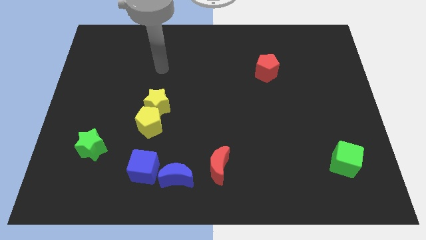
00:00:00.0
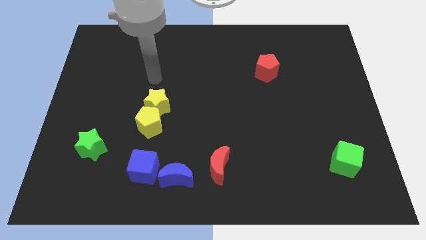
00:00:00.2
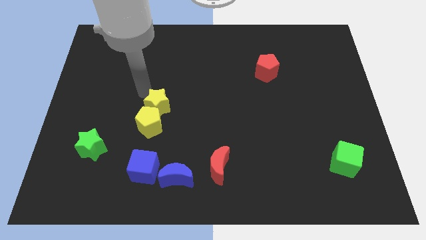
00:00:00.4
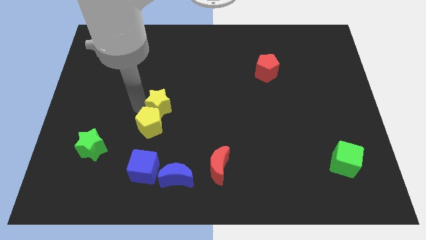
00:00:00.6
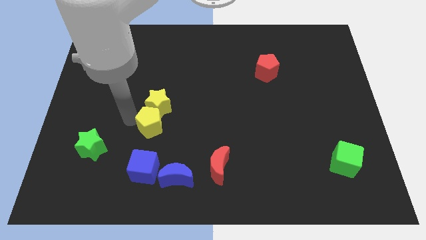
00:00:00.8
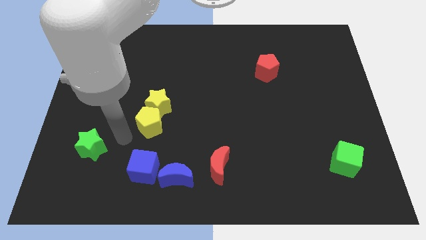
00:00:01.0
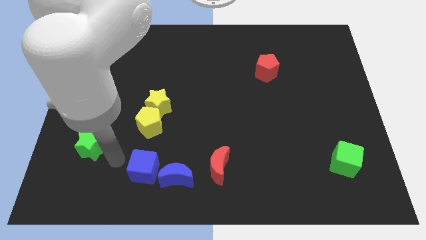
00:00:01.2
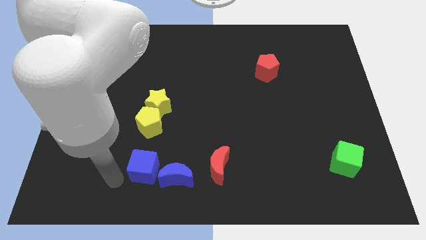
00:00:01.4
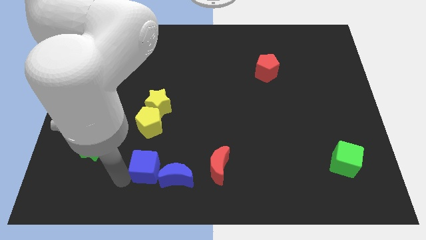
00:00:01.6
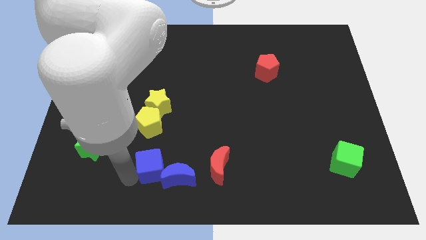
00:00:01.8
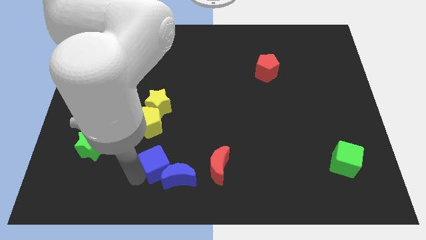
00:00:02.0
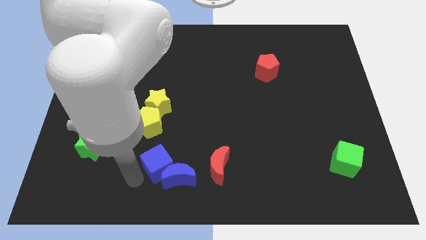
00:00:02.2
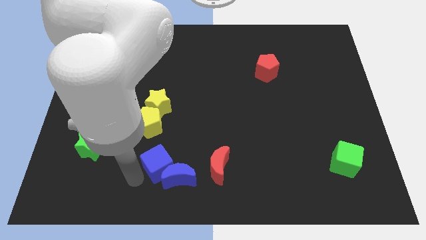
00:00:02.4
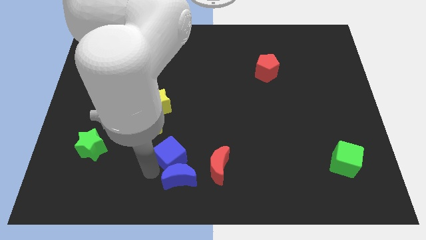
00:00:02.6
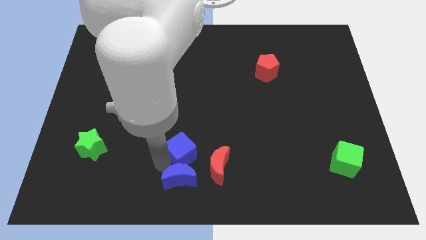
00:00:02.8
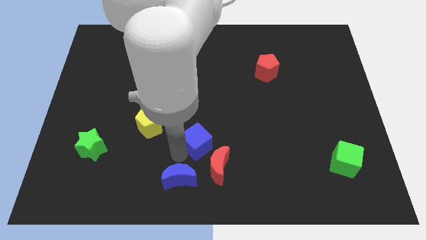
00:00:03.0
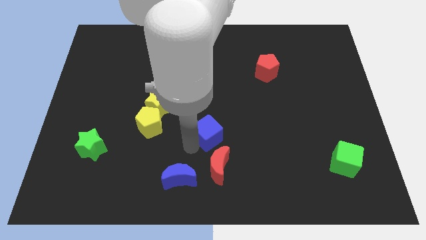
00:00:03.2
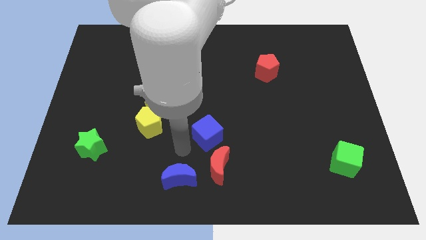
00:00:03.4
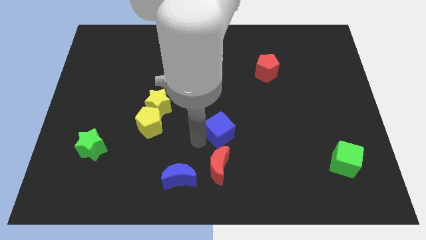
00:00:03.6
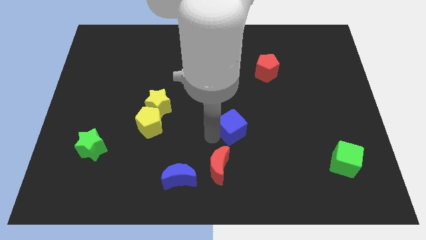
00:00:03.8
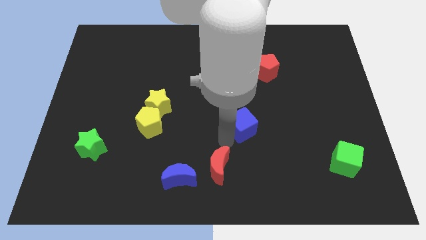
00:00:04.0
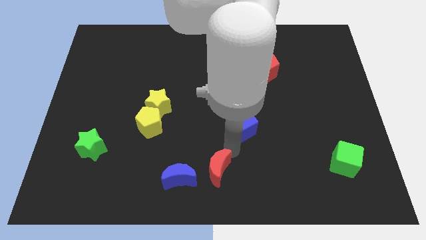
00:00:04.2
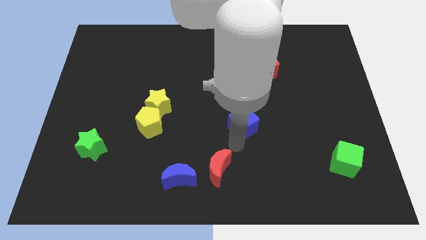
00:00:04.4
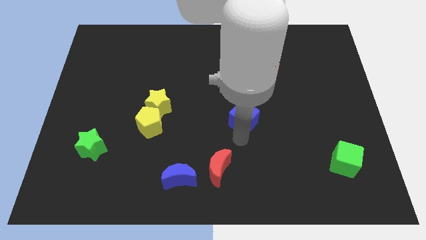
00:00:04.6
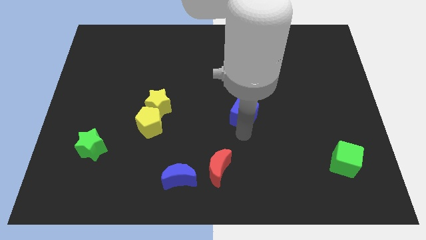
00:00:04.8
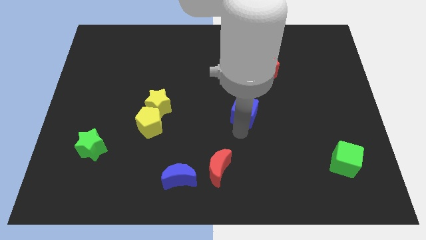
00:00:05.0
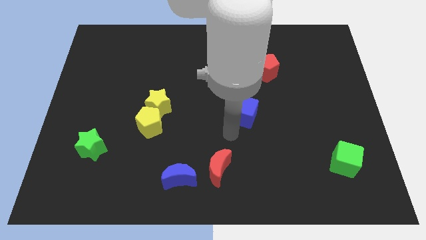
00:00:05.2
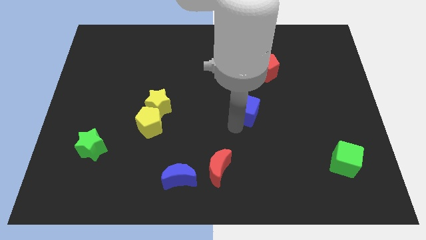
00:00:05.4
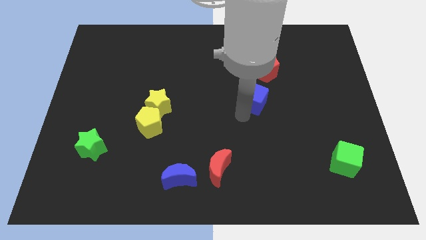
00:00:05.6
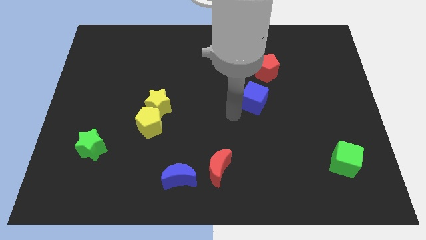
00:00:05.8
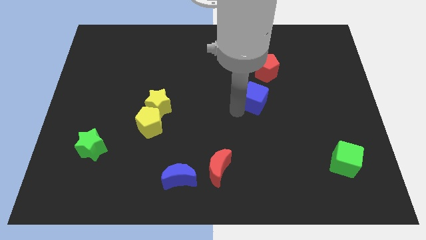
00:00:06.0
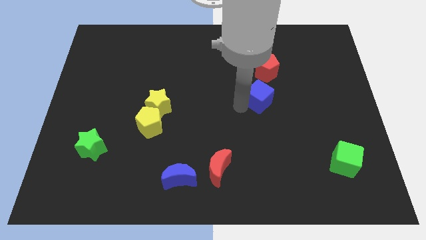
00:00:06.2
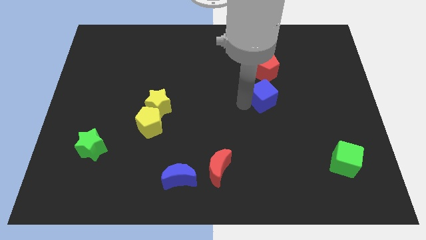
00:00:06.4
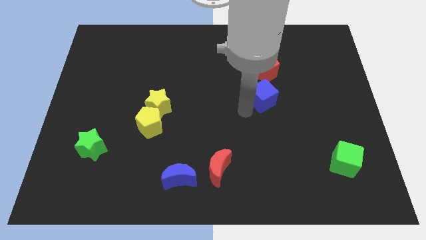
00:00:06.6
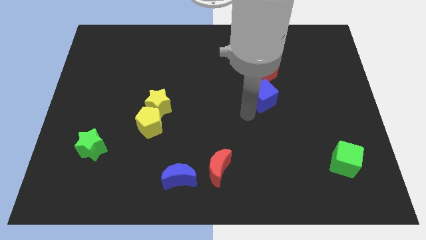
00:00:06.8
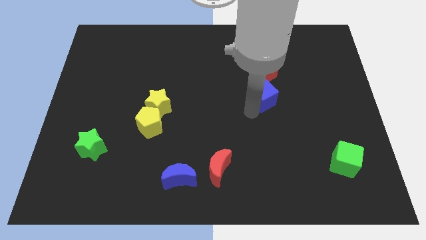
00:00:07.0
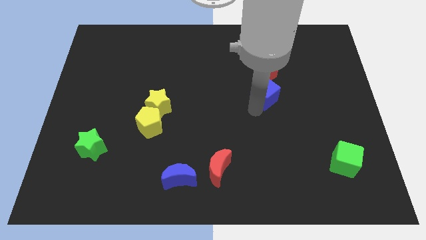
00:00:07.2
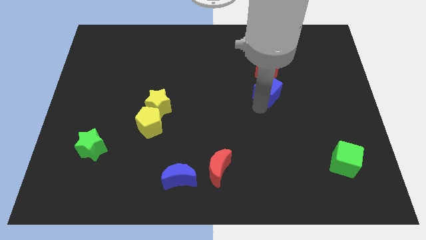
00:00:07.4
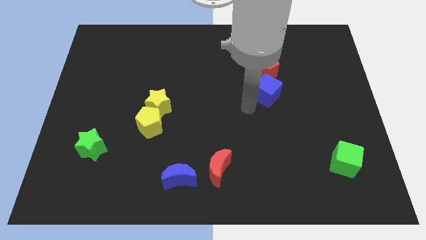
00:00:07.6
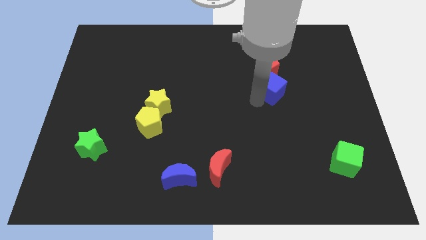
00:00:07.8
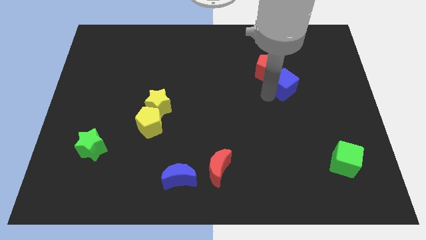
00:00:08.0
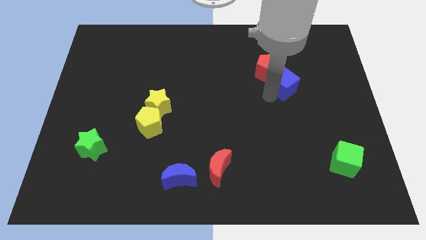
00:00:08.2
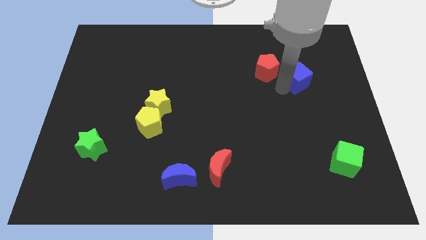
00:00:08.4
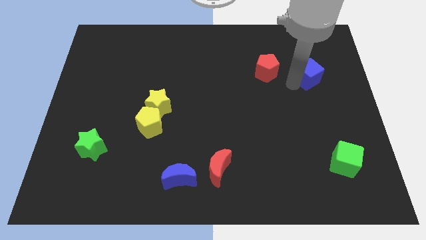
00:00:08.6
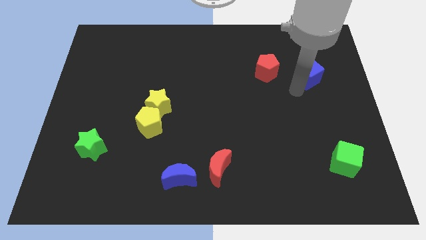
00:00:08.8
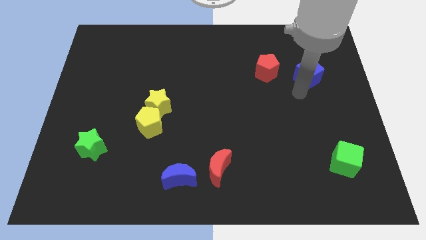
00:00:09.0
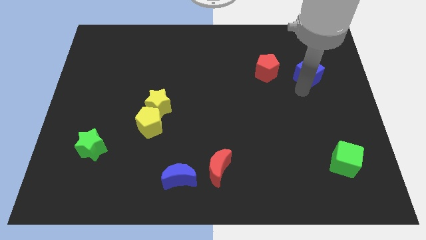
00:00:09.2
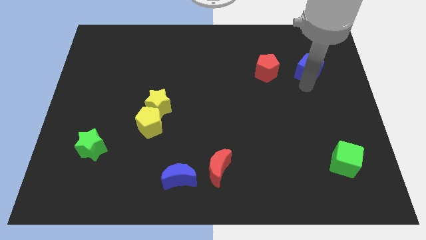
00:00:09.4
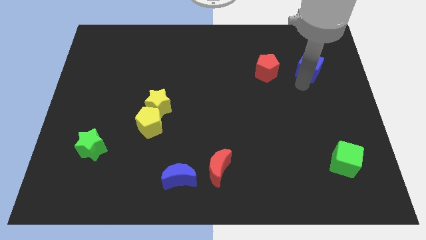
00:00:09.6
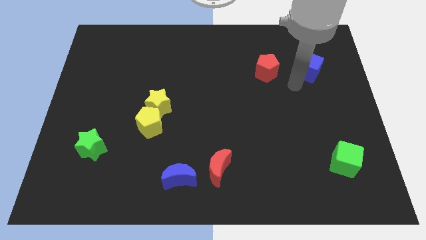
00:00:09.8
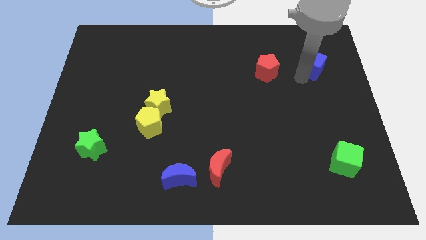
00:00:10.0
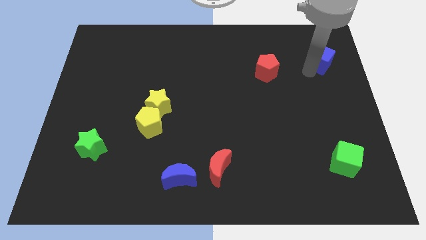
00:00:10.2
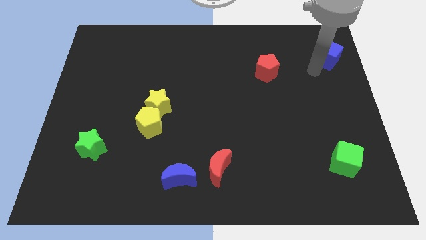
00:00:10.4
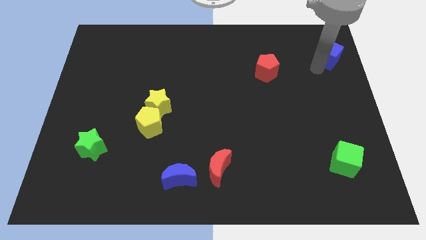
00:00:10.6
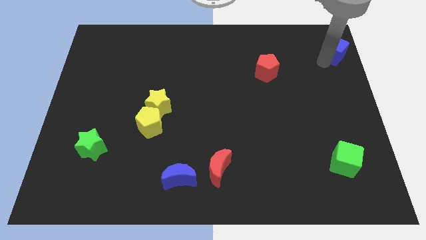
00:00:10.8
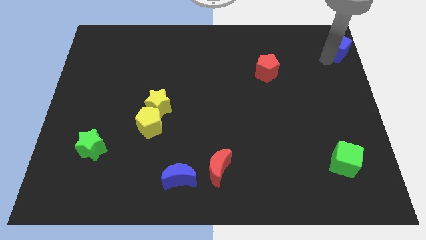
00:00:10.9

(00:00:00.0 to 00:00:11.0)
put the blue cube to the top right of the board
